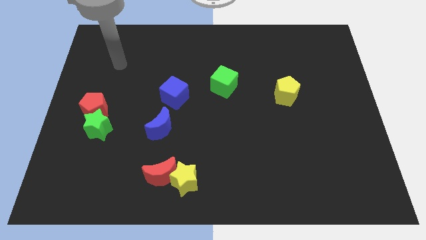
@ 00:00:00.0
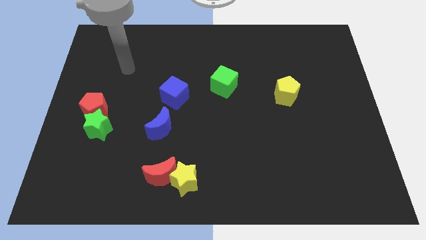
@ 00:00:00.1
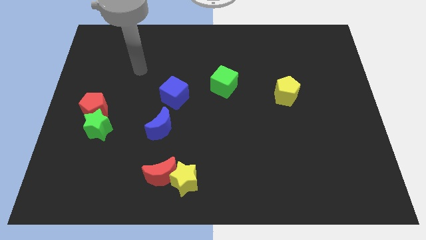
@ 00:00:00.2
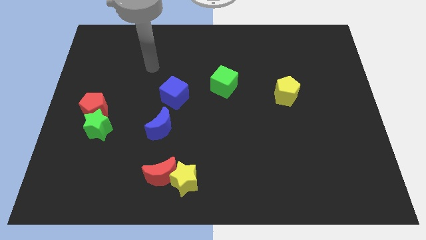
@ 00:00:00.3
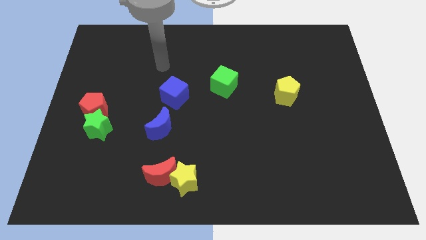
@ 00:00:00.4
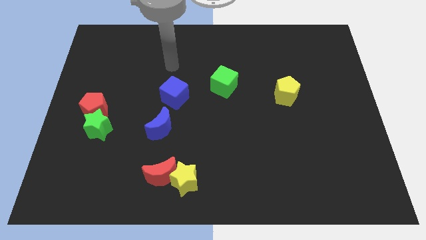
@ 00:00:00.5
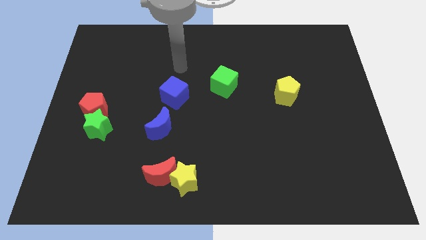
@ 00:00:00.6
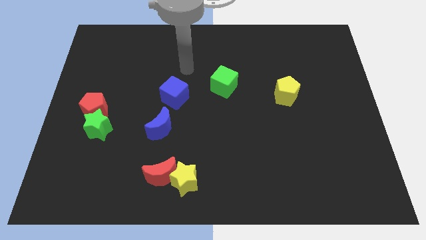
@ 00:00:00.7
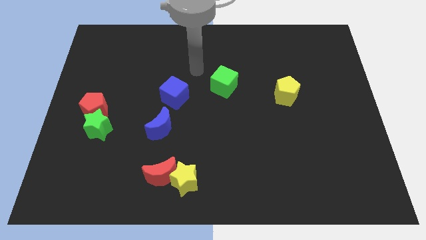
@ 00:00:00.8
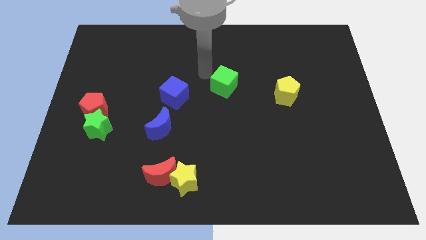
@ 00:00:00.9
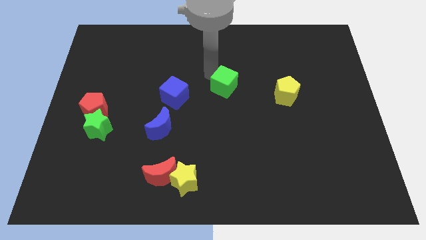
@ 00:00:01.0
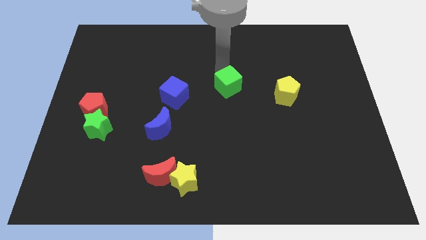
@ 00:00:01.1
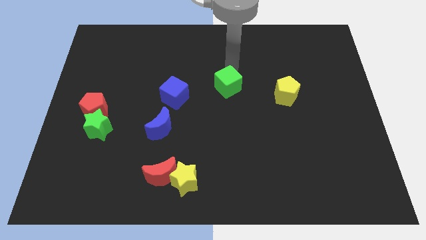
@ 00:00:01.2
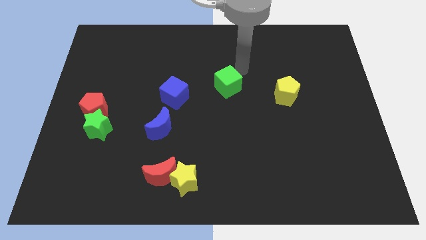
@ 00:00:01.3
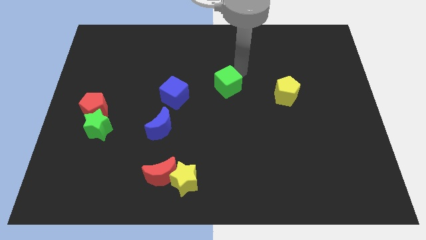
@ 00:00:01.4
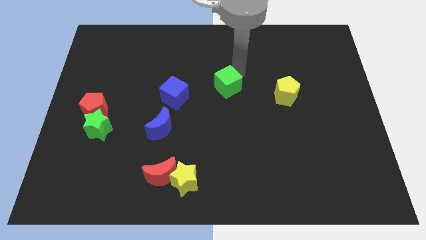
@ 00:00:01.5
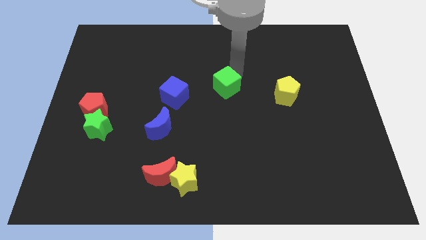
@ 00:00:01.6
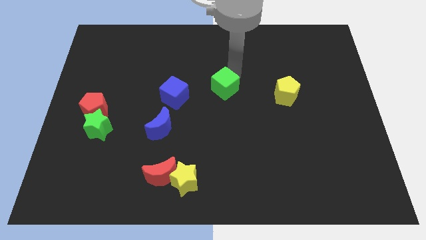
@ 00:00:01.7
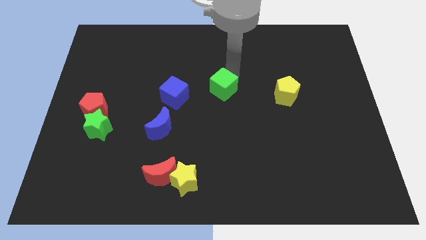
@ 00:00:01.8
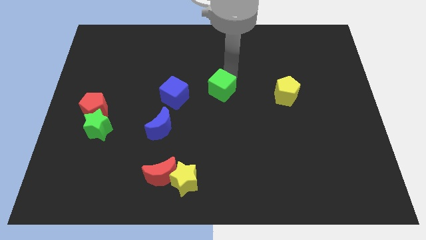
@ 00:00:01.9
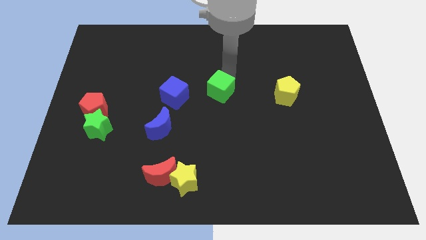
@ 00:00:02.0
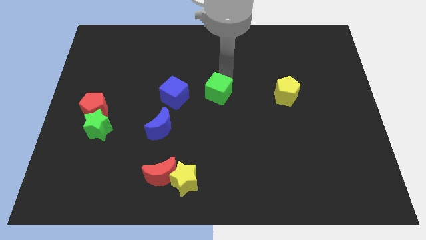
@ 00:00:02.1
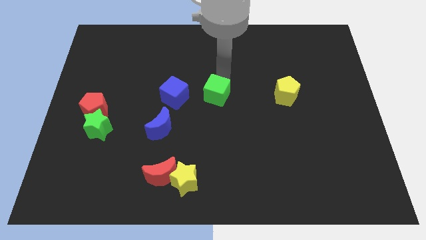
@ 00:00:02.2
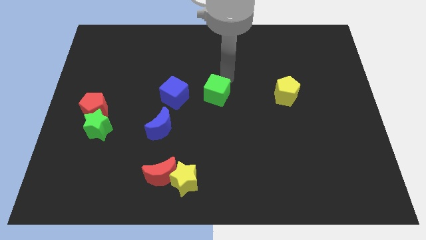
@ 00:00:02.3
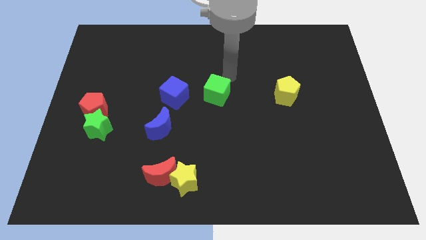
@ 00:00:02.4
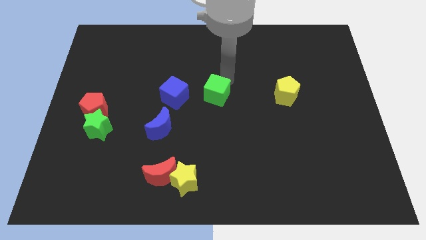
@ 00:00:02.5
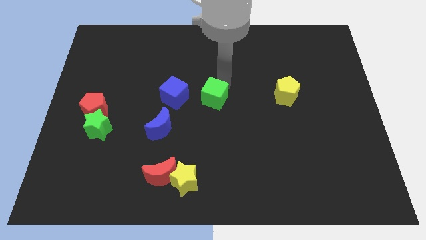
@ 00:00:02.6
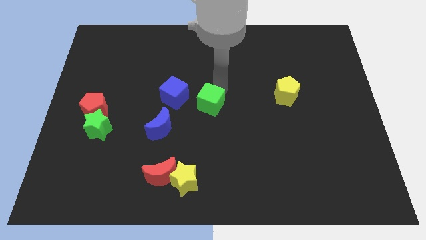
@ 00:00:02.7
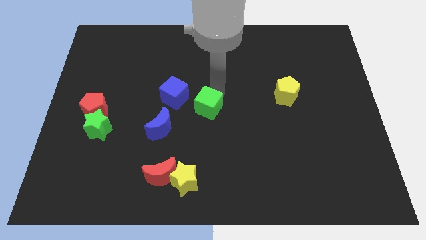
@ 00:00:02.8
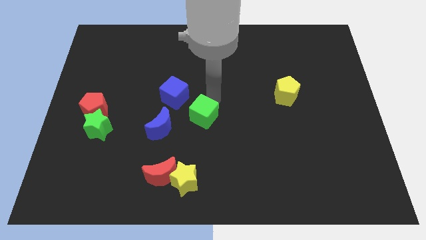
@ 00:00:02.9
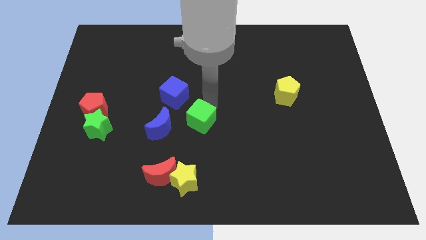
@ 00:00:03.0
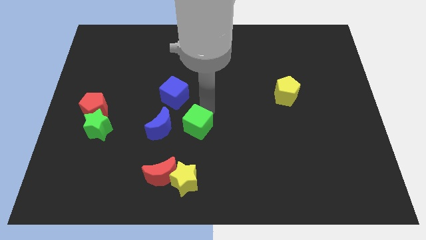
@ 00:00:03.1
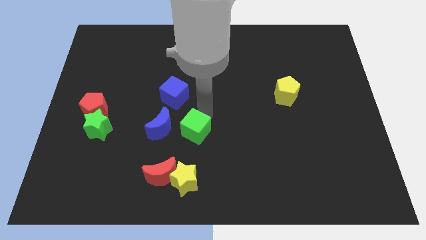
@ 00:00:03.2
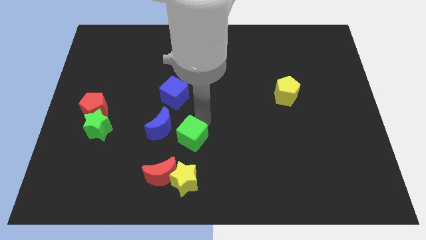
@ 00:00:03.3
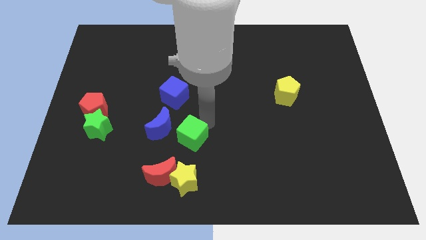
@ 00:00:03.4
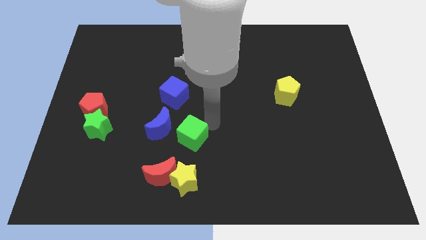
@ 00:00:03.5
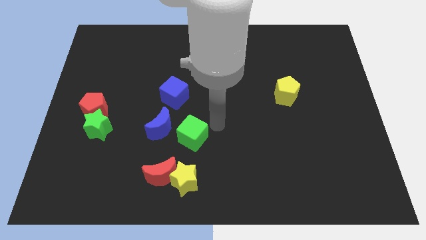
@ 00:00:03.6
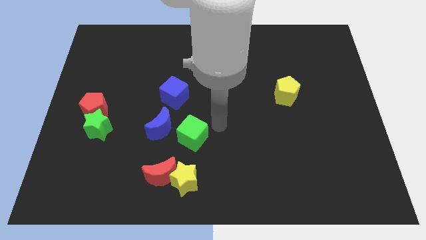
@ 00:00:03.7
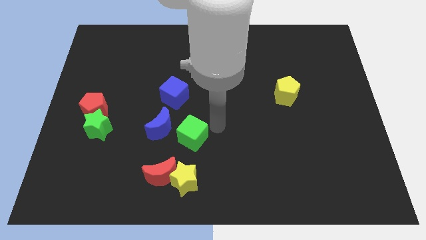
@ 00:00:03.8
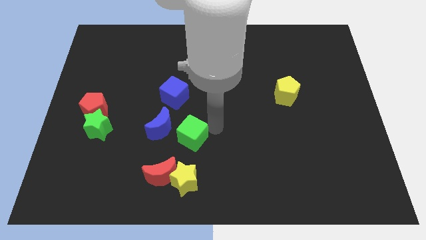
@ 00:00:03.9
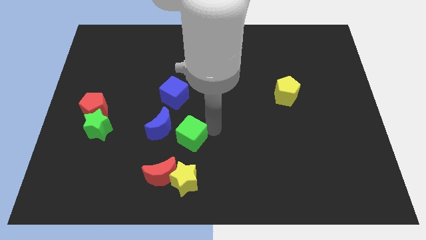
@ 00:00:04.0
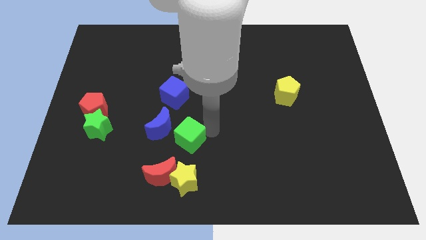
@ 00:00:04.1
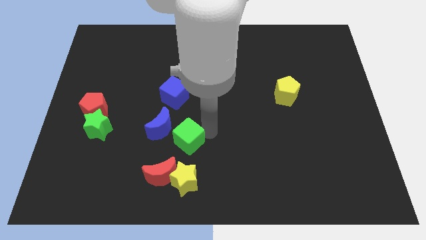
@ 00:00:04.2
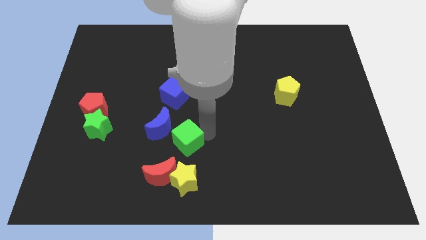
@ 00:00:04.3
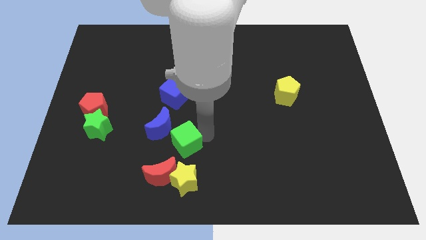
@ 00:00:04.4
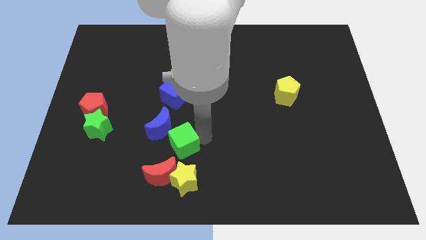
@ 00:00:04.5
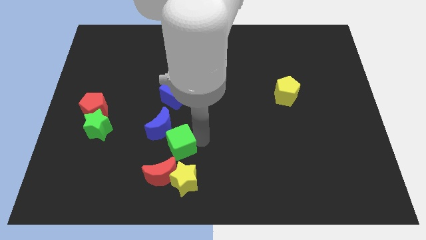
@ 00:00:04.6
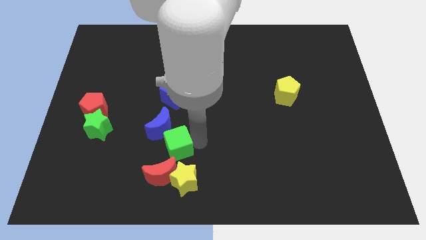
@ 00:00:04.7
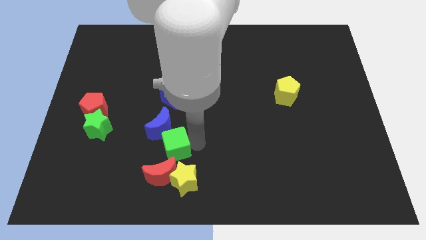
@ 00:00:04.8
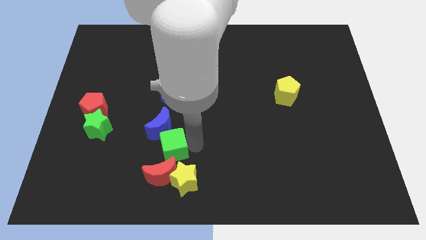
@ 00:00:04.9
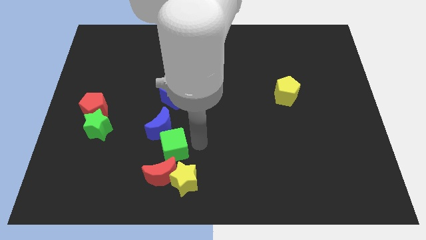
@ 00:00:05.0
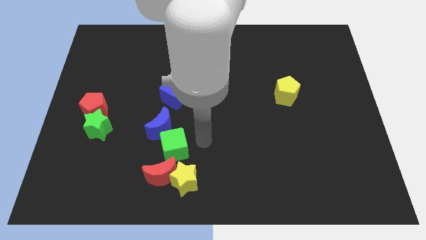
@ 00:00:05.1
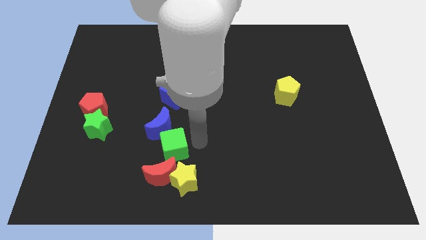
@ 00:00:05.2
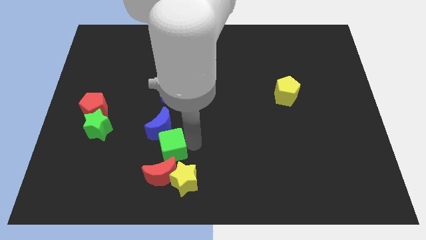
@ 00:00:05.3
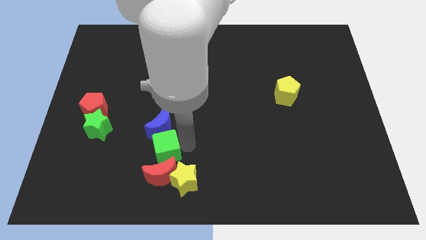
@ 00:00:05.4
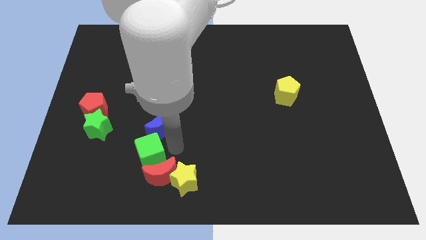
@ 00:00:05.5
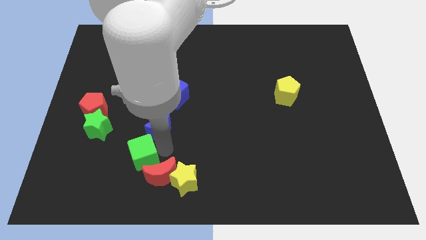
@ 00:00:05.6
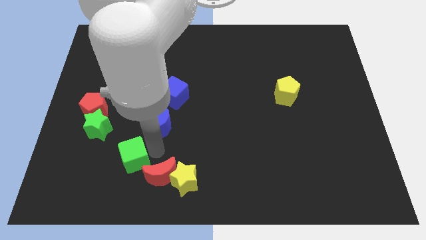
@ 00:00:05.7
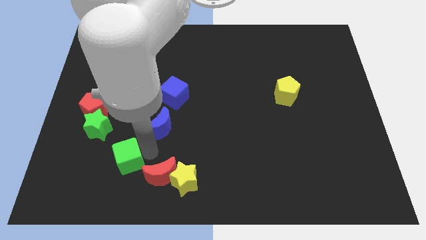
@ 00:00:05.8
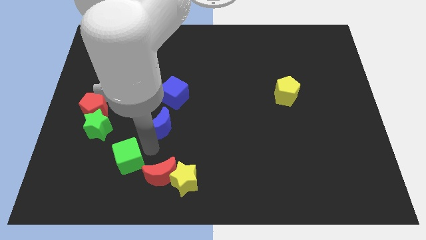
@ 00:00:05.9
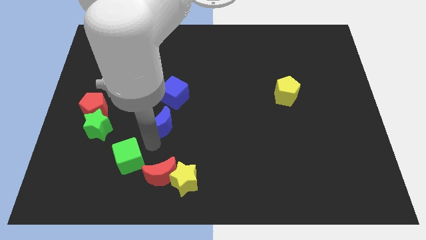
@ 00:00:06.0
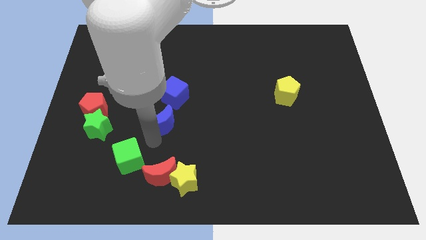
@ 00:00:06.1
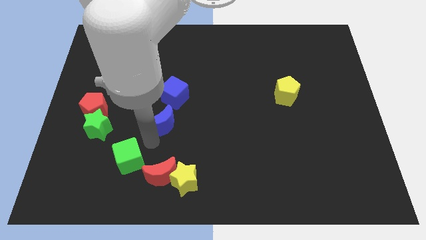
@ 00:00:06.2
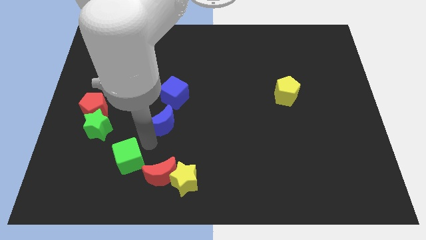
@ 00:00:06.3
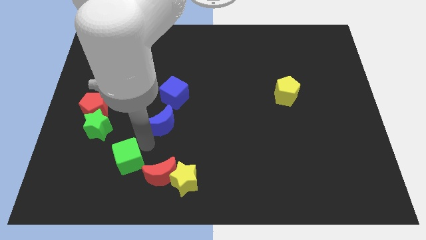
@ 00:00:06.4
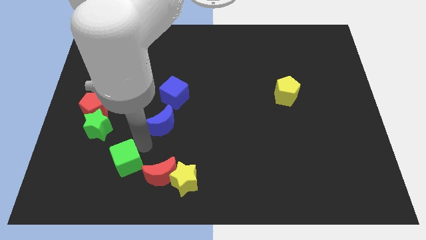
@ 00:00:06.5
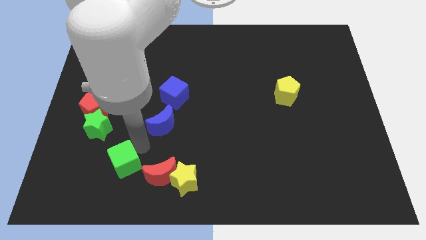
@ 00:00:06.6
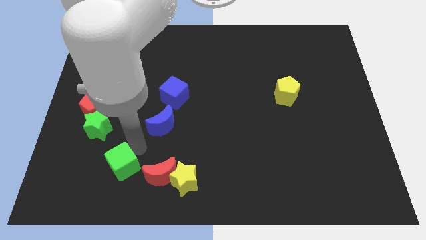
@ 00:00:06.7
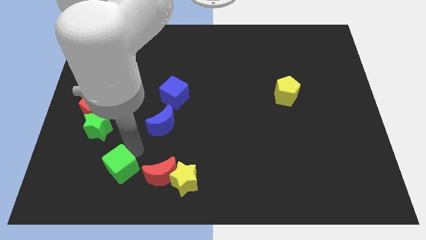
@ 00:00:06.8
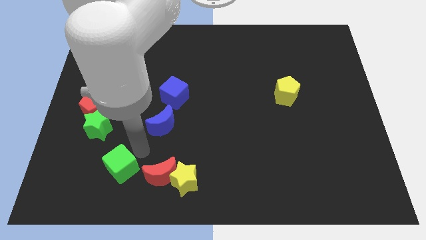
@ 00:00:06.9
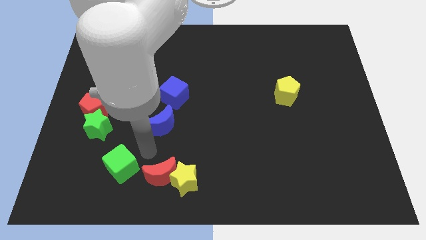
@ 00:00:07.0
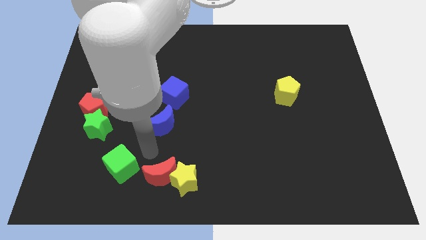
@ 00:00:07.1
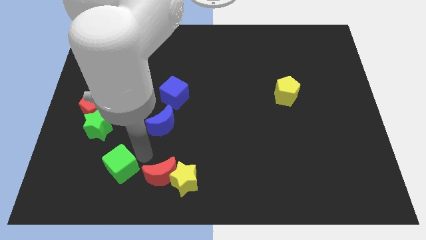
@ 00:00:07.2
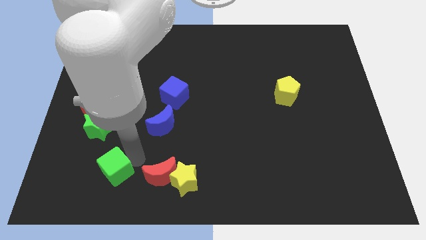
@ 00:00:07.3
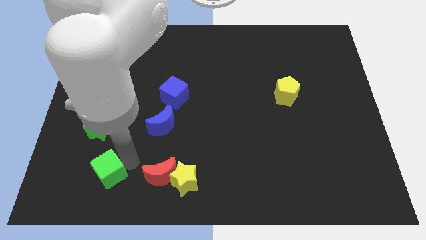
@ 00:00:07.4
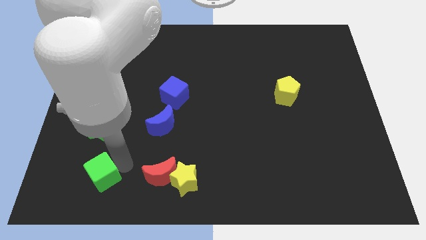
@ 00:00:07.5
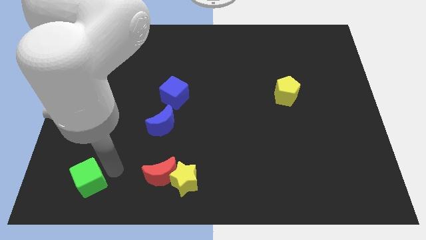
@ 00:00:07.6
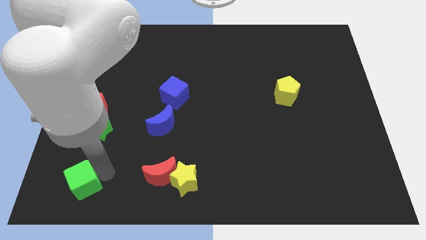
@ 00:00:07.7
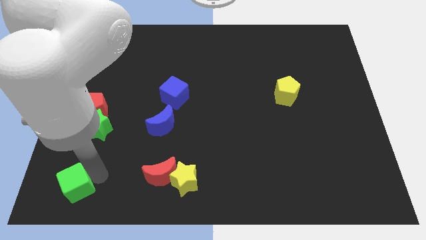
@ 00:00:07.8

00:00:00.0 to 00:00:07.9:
move the green cube to the bottom left
